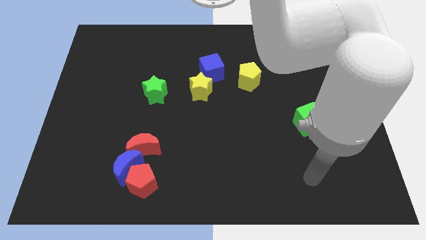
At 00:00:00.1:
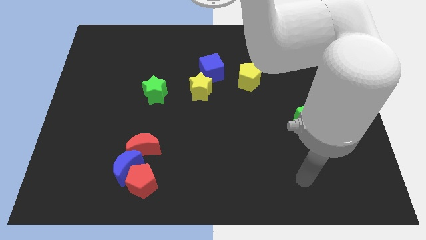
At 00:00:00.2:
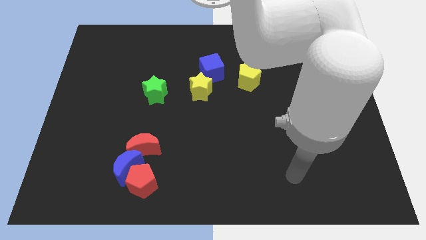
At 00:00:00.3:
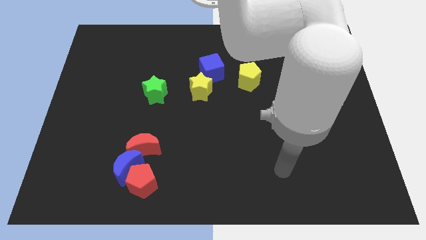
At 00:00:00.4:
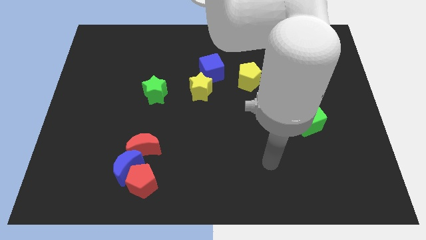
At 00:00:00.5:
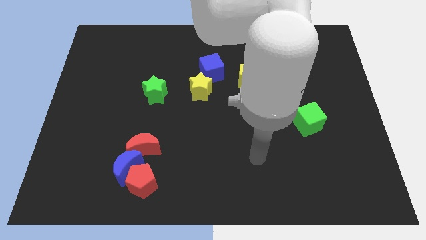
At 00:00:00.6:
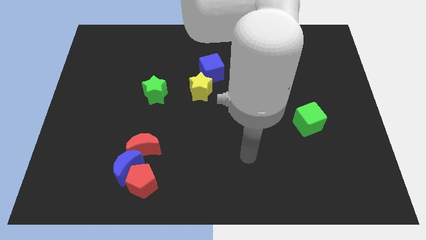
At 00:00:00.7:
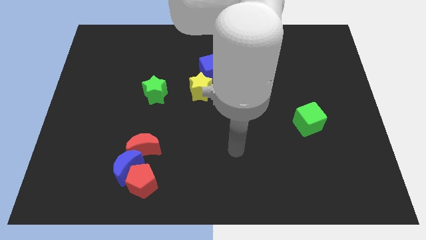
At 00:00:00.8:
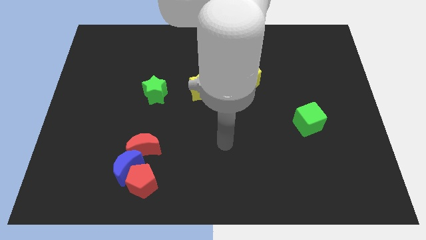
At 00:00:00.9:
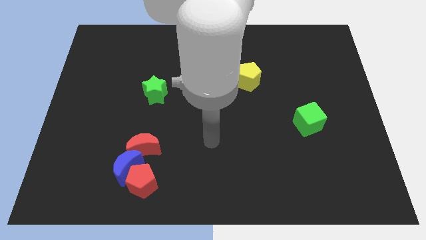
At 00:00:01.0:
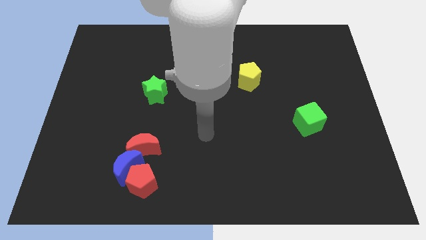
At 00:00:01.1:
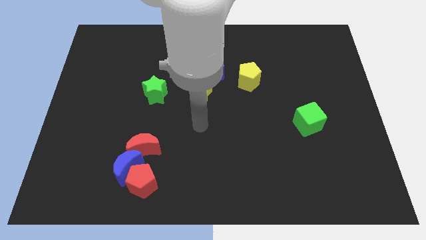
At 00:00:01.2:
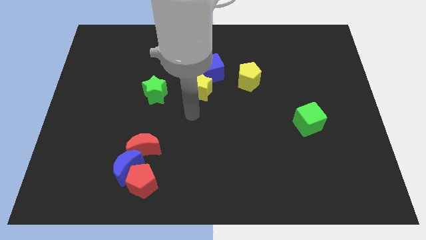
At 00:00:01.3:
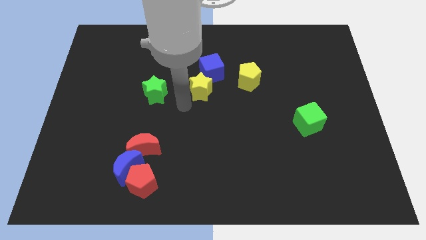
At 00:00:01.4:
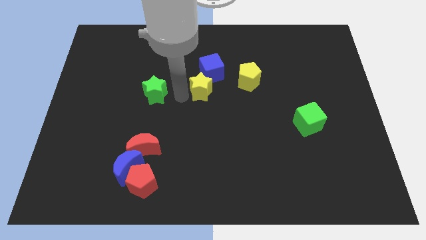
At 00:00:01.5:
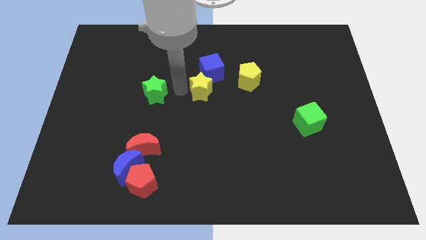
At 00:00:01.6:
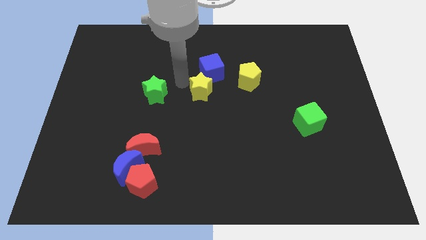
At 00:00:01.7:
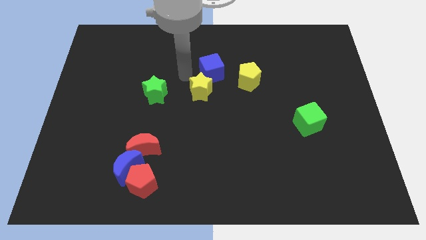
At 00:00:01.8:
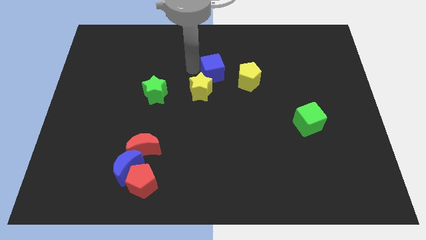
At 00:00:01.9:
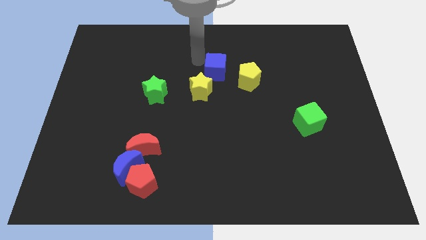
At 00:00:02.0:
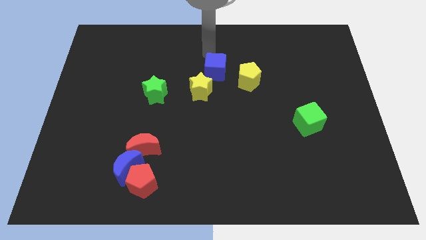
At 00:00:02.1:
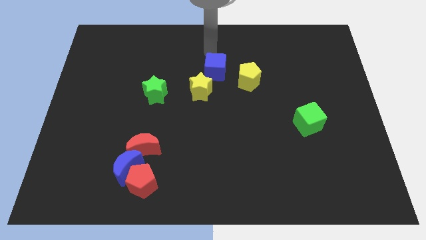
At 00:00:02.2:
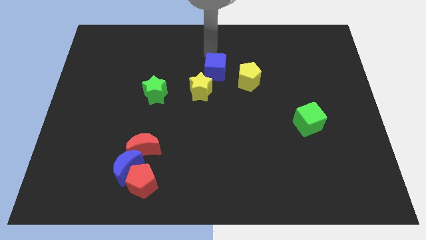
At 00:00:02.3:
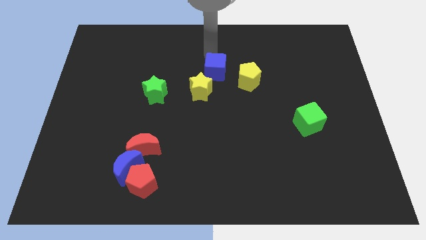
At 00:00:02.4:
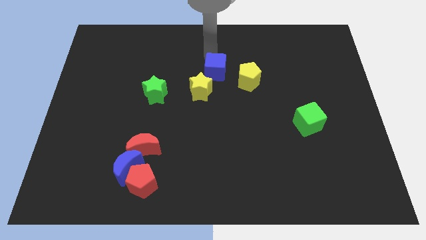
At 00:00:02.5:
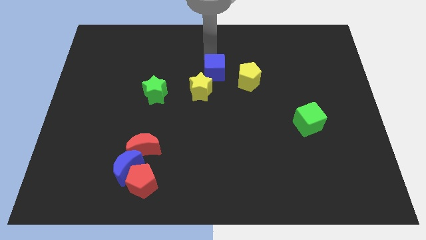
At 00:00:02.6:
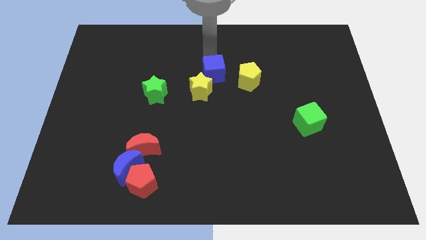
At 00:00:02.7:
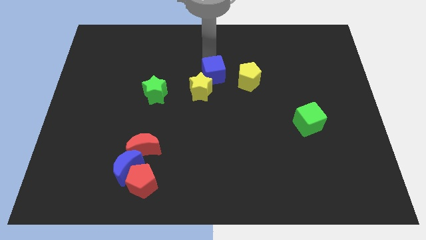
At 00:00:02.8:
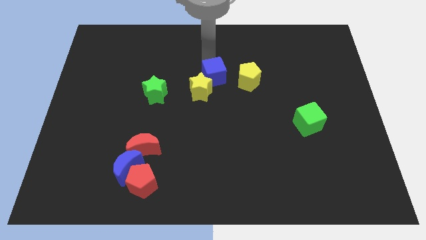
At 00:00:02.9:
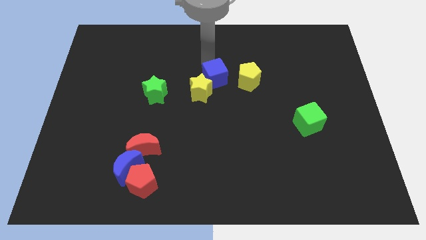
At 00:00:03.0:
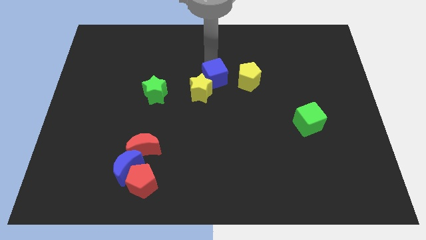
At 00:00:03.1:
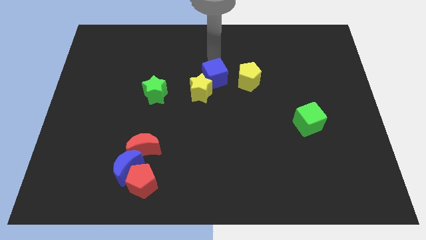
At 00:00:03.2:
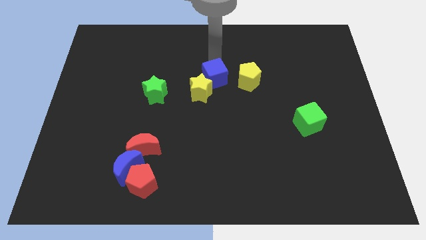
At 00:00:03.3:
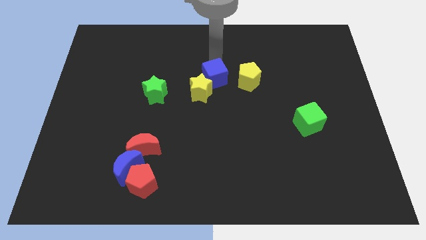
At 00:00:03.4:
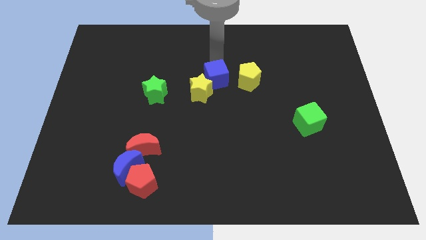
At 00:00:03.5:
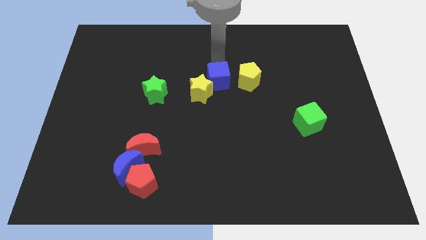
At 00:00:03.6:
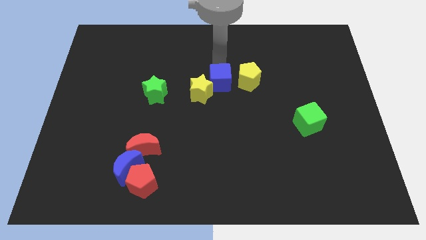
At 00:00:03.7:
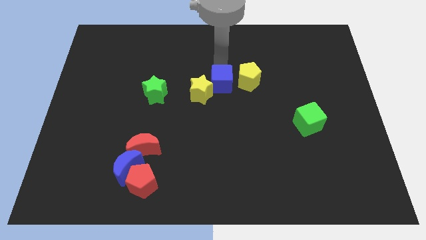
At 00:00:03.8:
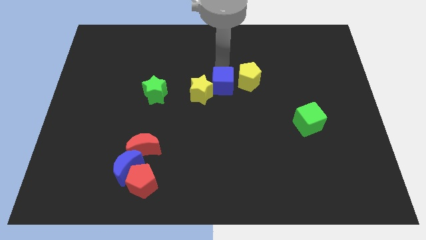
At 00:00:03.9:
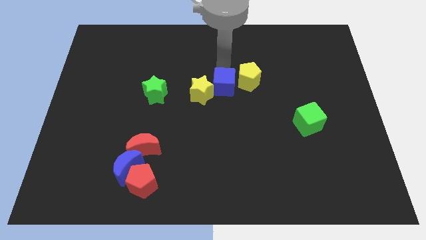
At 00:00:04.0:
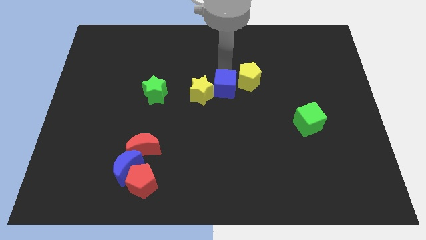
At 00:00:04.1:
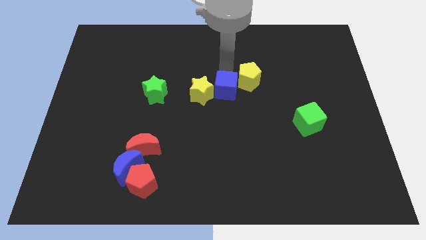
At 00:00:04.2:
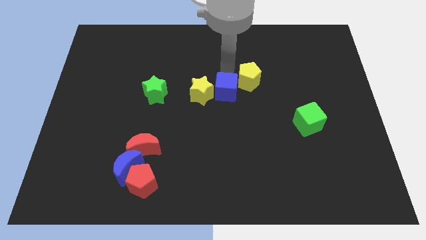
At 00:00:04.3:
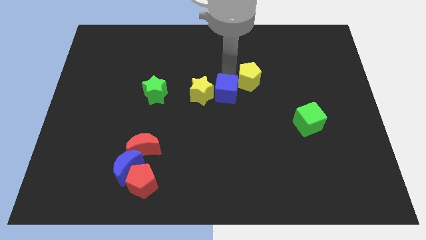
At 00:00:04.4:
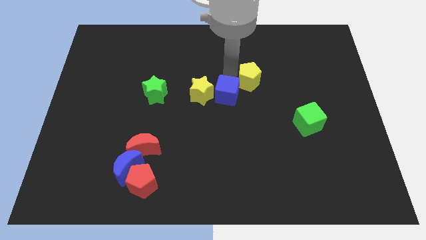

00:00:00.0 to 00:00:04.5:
slightly slide the blue cube down

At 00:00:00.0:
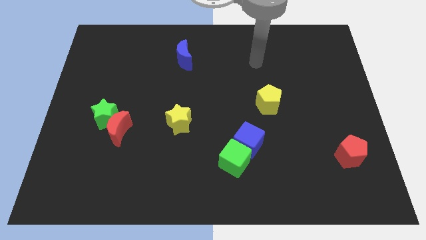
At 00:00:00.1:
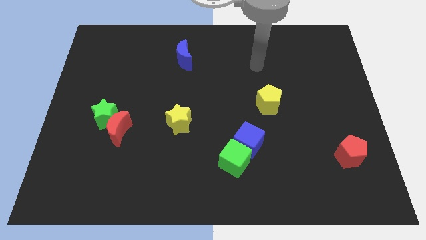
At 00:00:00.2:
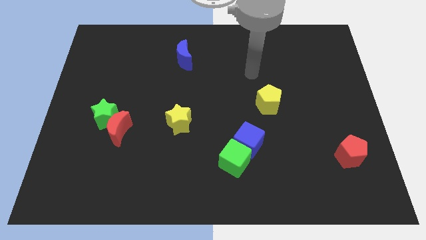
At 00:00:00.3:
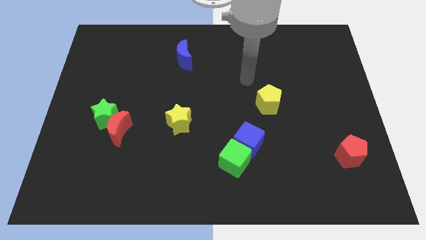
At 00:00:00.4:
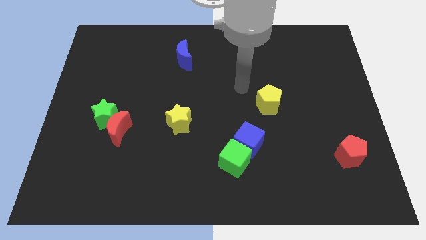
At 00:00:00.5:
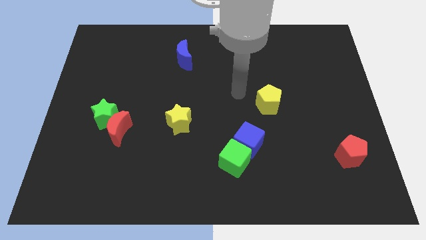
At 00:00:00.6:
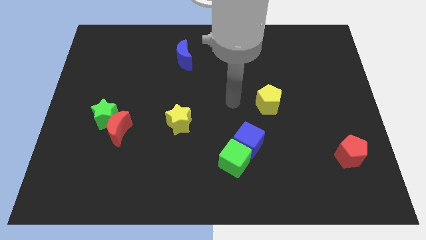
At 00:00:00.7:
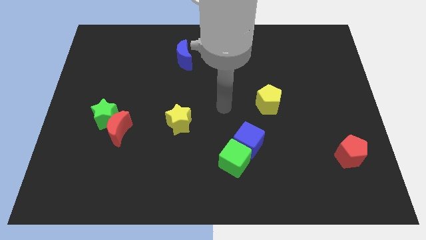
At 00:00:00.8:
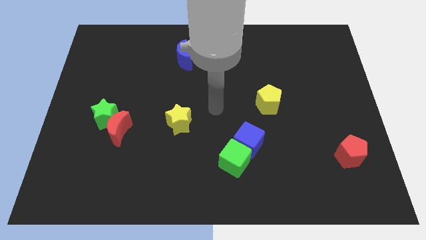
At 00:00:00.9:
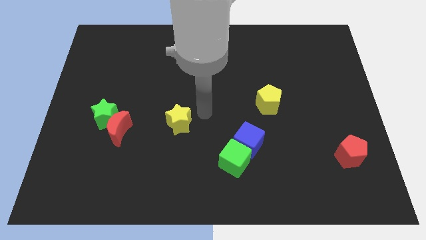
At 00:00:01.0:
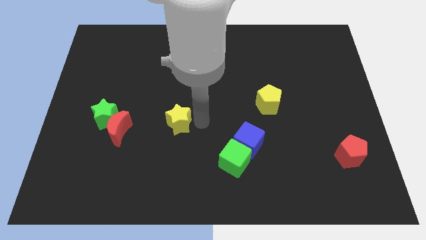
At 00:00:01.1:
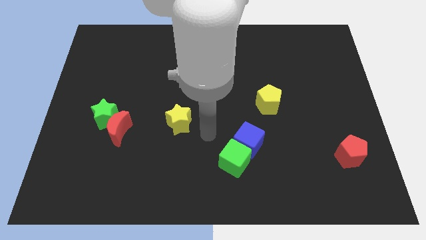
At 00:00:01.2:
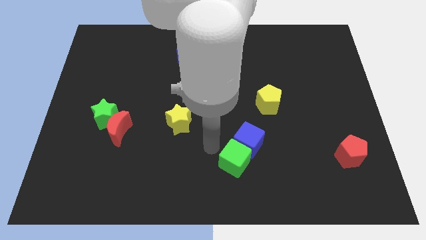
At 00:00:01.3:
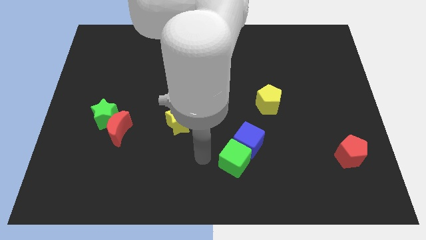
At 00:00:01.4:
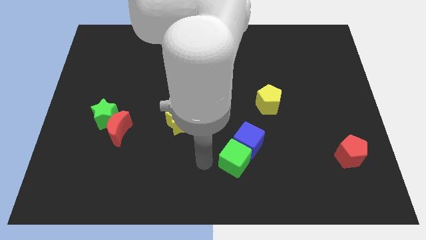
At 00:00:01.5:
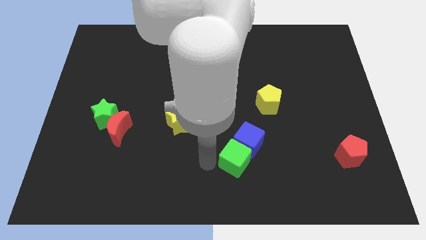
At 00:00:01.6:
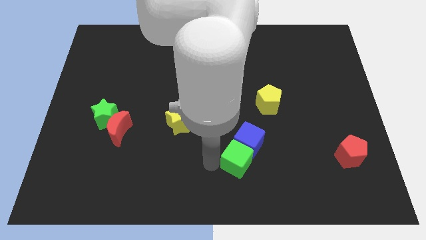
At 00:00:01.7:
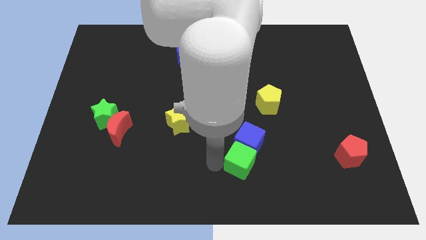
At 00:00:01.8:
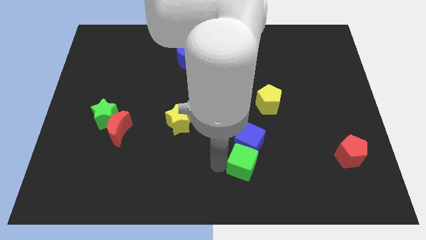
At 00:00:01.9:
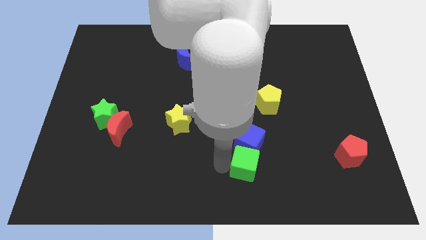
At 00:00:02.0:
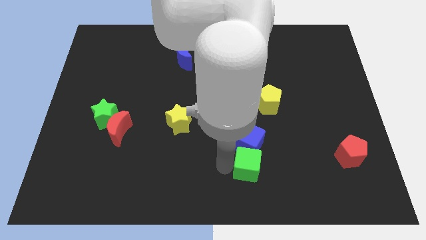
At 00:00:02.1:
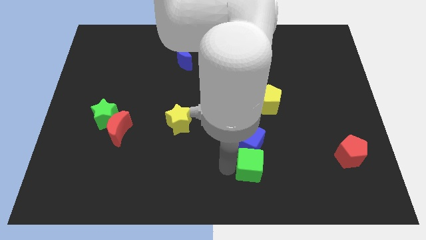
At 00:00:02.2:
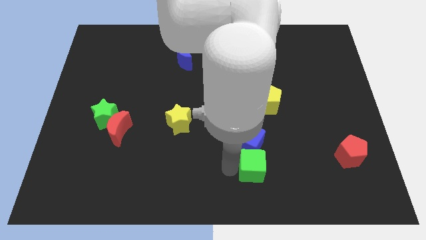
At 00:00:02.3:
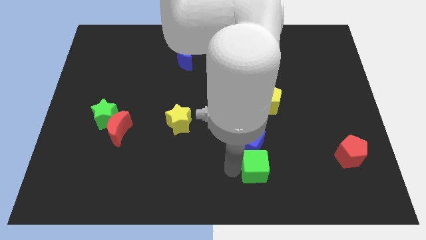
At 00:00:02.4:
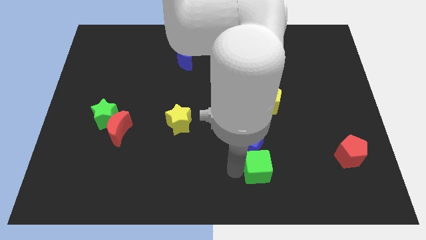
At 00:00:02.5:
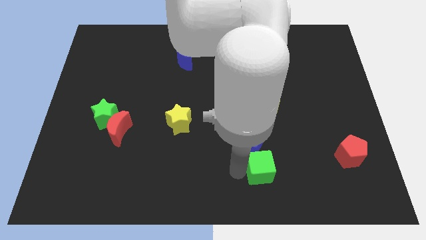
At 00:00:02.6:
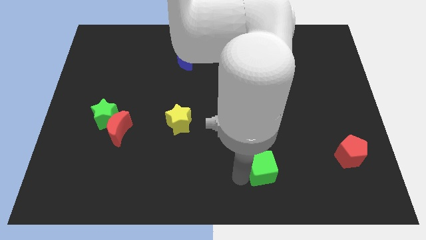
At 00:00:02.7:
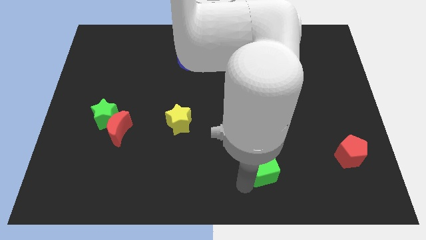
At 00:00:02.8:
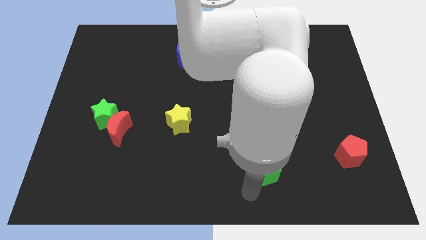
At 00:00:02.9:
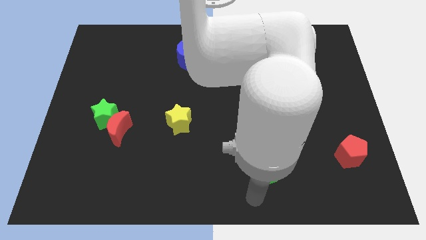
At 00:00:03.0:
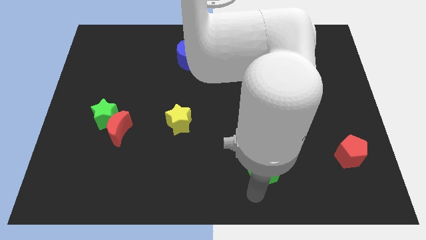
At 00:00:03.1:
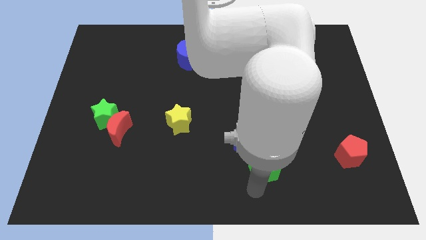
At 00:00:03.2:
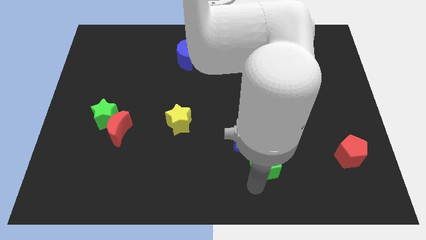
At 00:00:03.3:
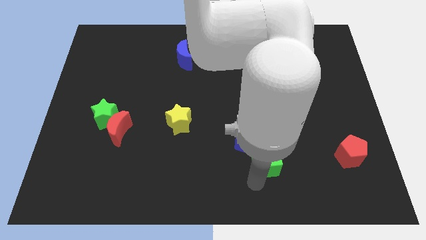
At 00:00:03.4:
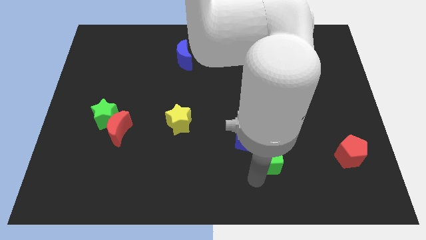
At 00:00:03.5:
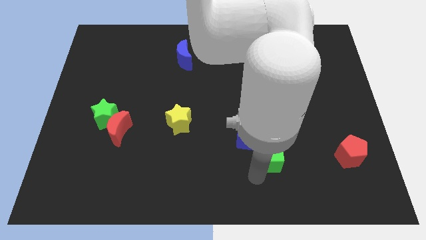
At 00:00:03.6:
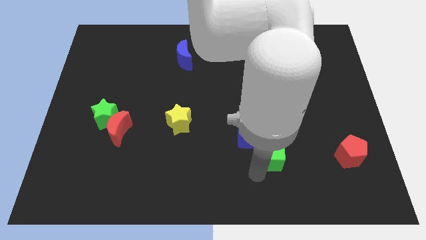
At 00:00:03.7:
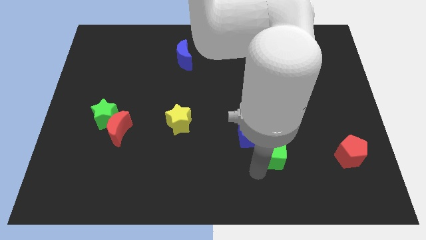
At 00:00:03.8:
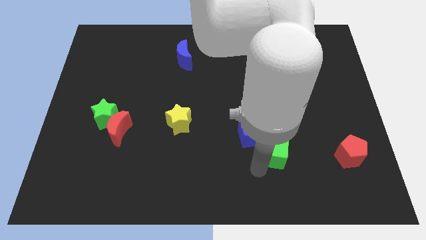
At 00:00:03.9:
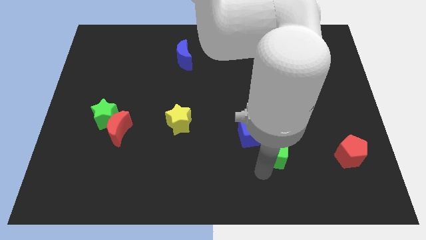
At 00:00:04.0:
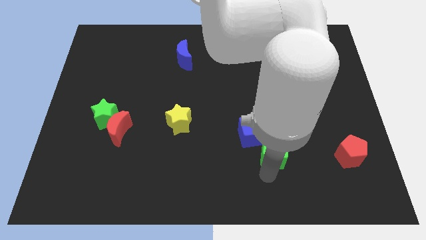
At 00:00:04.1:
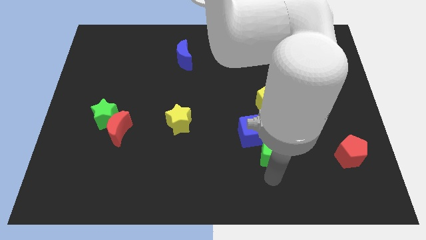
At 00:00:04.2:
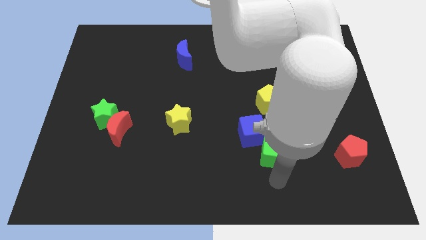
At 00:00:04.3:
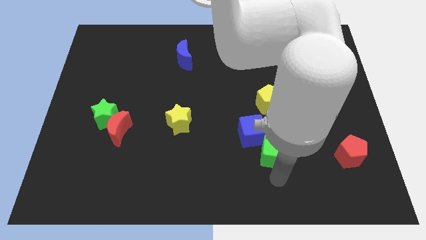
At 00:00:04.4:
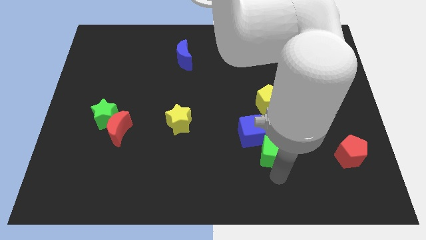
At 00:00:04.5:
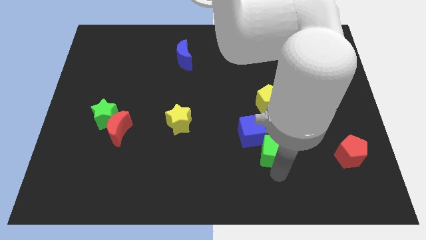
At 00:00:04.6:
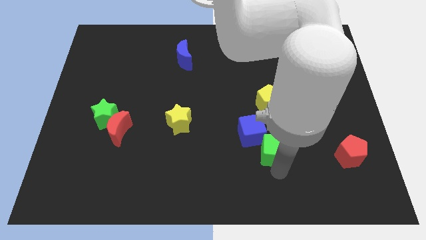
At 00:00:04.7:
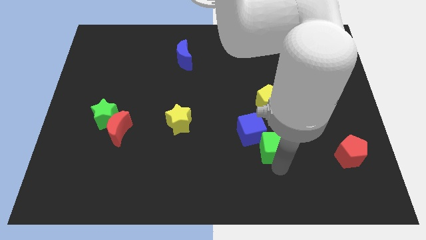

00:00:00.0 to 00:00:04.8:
slightly push the green cube upwards and then to the right
